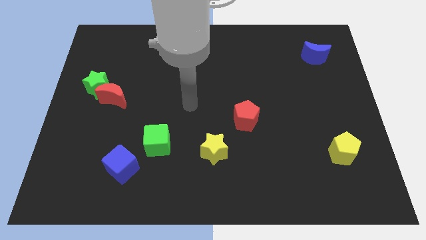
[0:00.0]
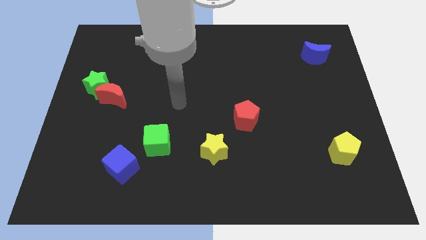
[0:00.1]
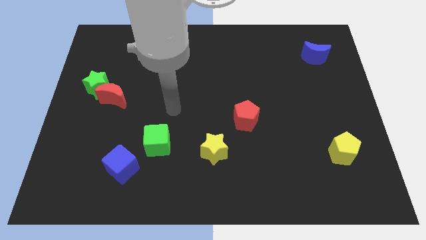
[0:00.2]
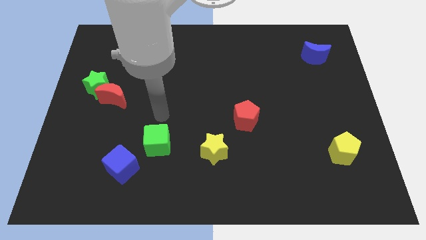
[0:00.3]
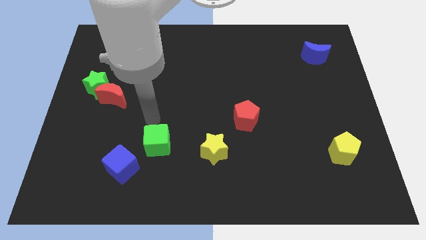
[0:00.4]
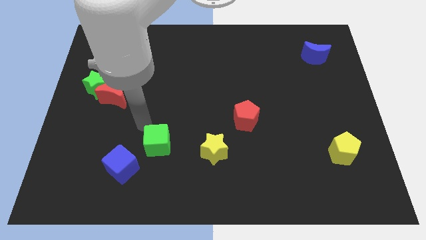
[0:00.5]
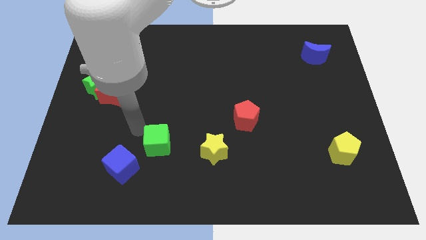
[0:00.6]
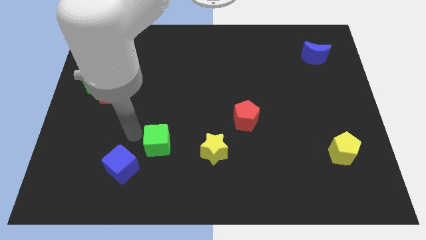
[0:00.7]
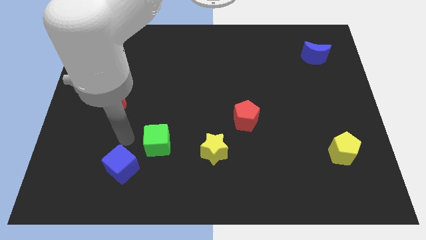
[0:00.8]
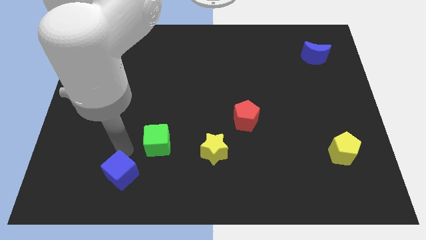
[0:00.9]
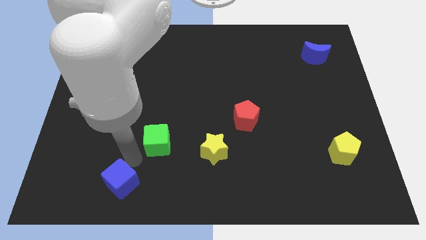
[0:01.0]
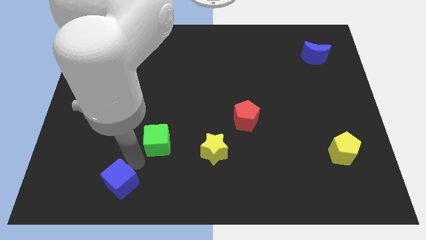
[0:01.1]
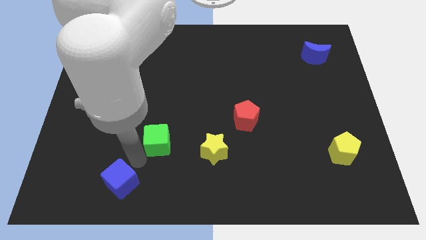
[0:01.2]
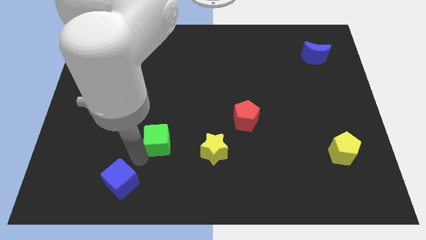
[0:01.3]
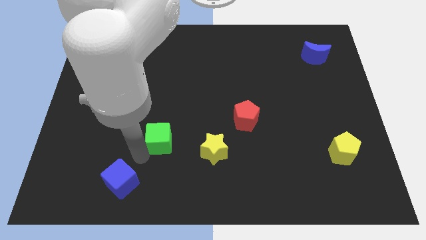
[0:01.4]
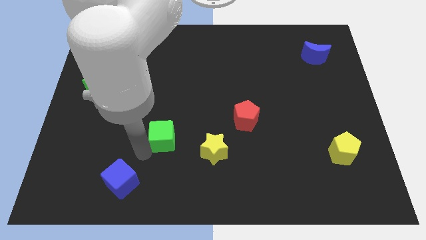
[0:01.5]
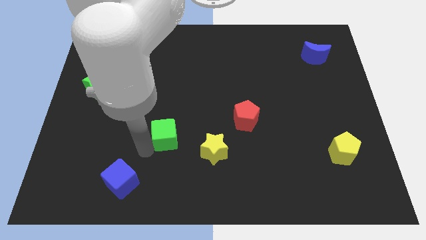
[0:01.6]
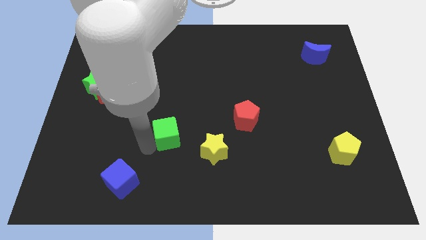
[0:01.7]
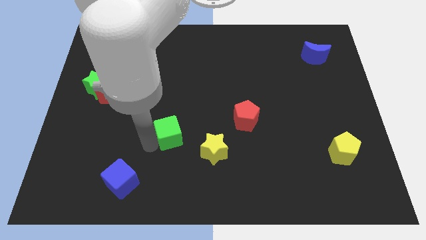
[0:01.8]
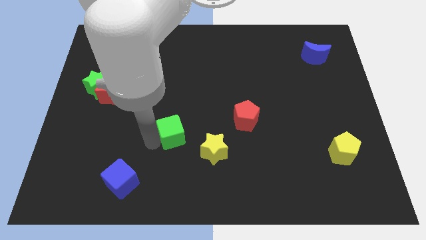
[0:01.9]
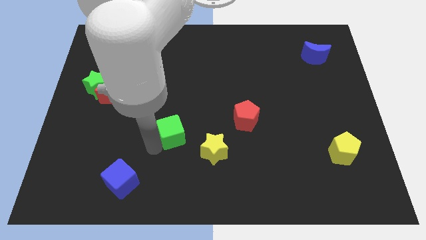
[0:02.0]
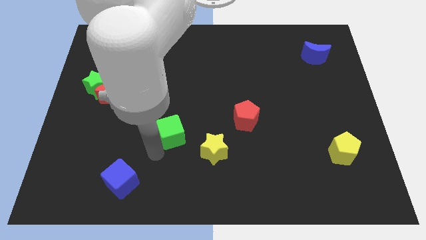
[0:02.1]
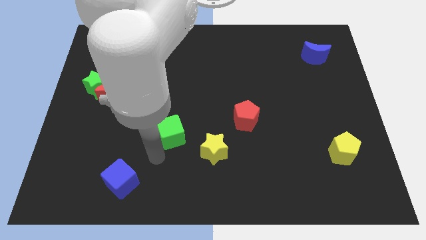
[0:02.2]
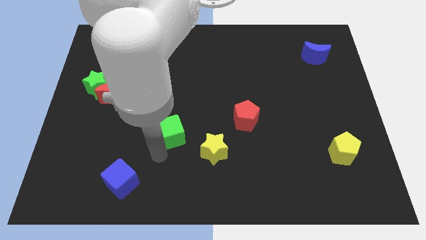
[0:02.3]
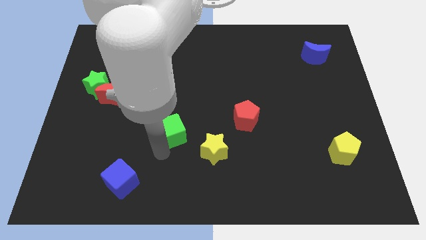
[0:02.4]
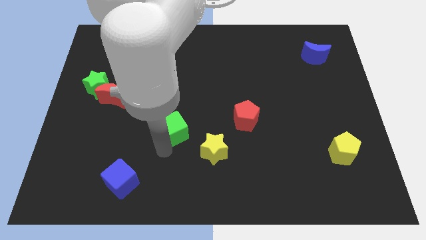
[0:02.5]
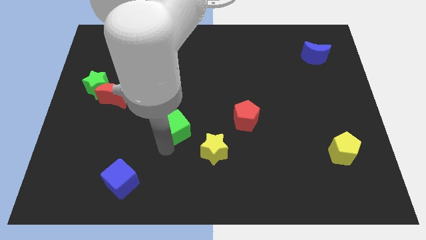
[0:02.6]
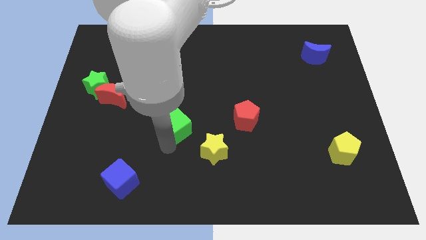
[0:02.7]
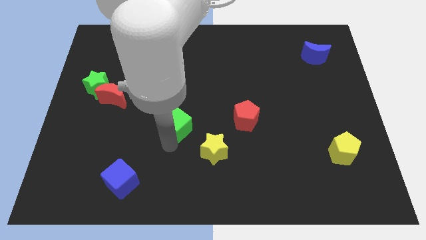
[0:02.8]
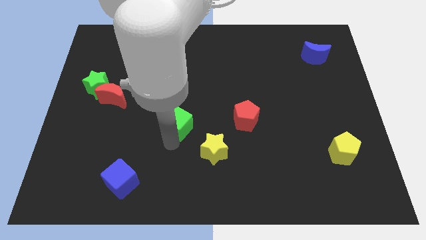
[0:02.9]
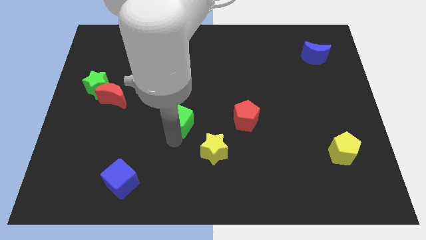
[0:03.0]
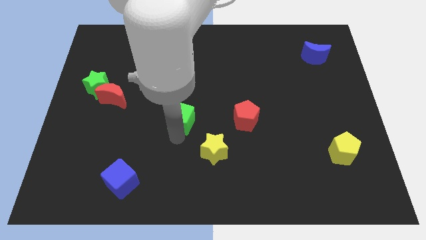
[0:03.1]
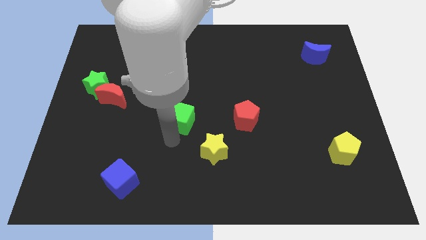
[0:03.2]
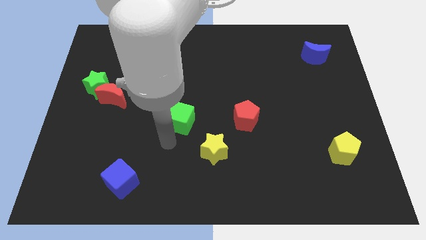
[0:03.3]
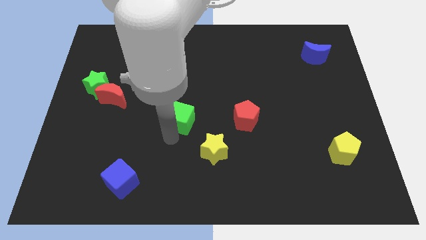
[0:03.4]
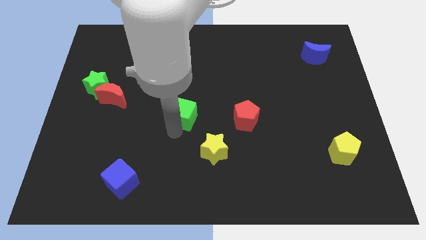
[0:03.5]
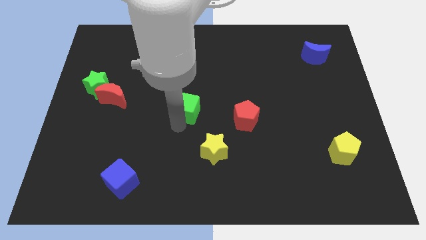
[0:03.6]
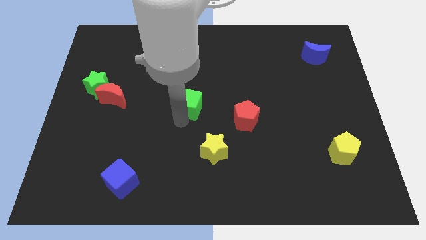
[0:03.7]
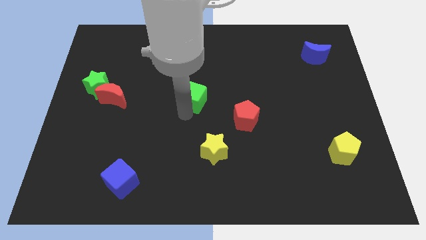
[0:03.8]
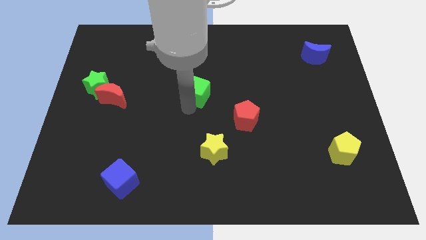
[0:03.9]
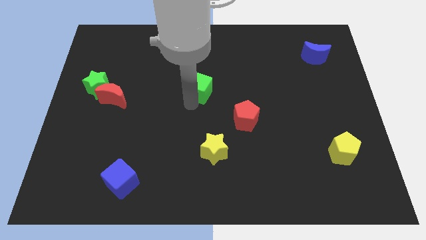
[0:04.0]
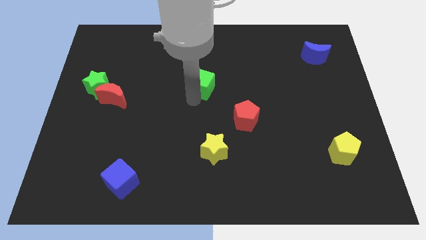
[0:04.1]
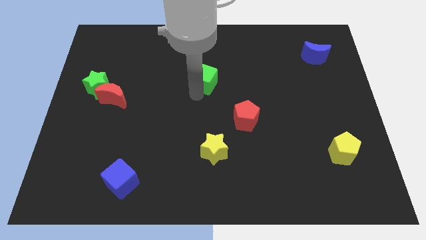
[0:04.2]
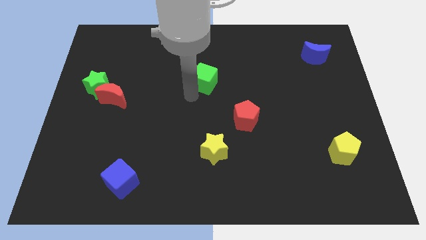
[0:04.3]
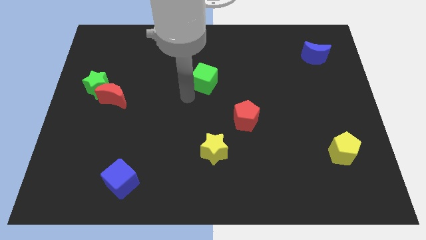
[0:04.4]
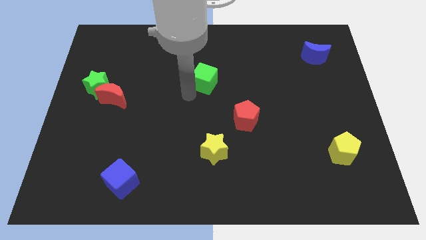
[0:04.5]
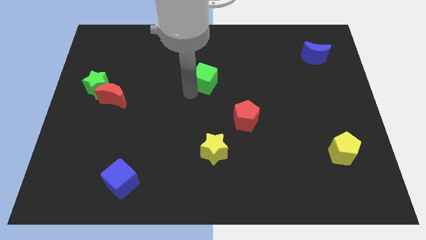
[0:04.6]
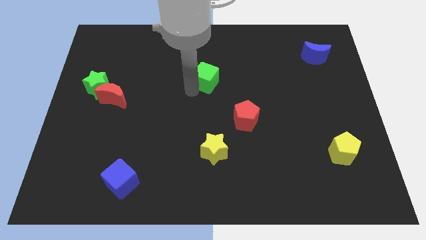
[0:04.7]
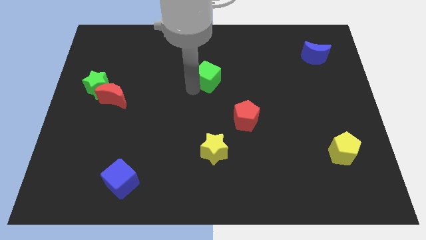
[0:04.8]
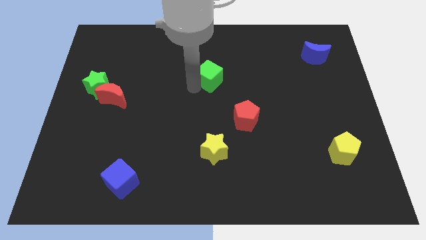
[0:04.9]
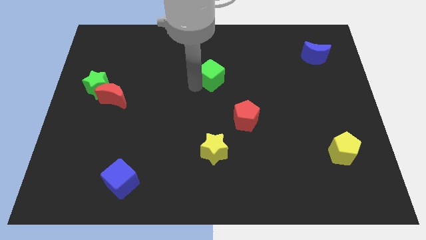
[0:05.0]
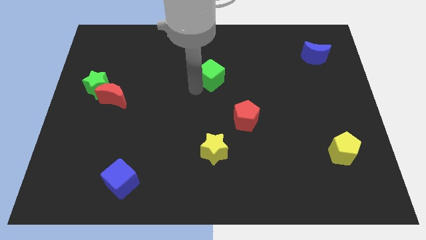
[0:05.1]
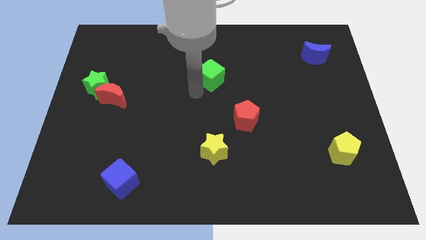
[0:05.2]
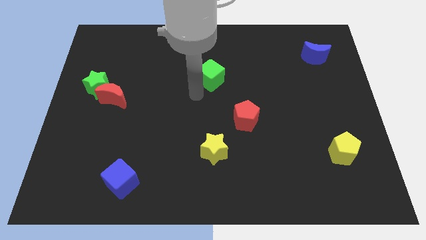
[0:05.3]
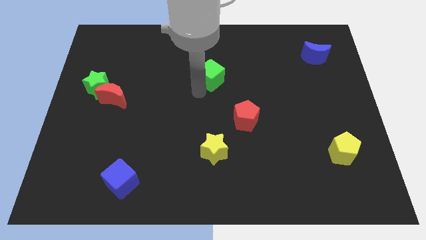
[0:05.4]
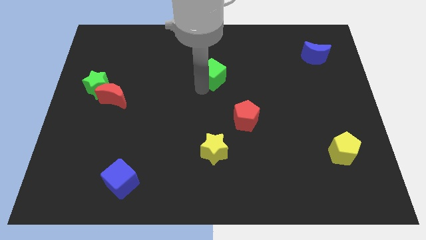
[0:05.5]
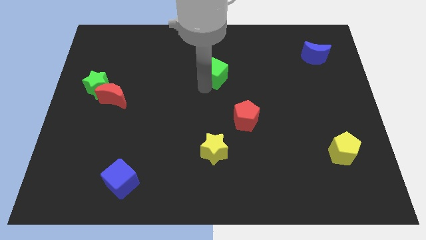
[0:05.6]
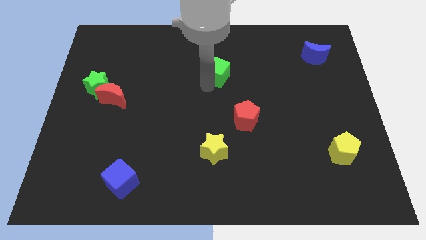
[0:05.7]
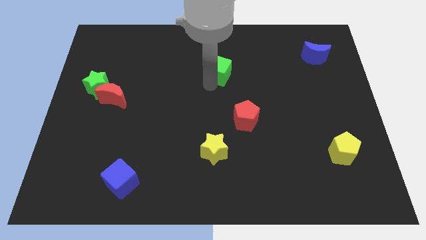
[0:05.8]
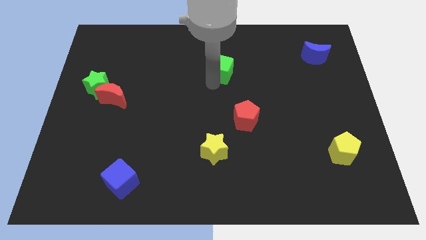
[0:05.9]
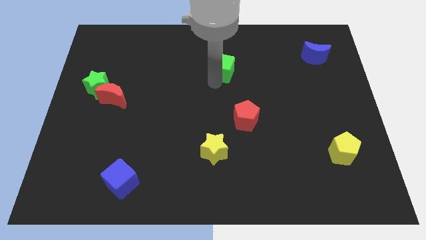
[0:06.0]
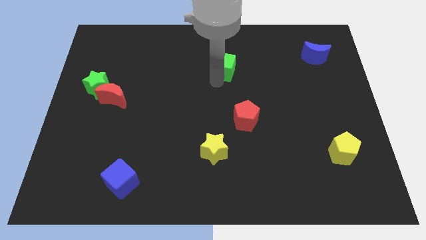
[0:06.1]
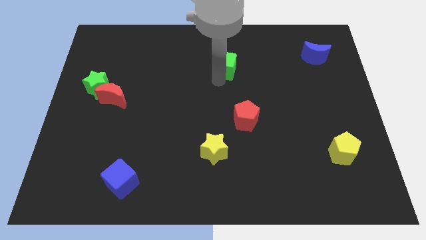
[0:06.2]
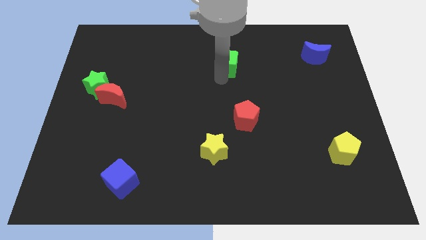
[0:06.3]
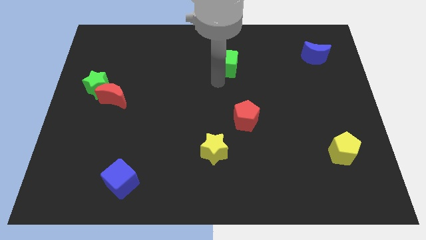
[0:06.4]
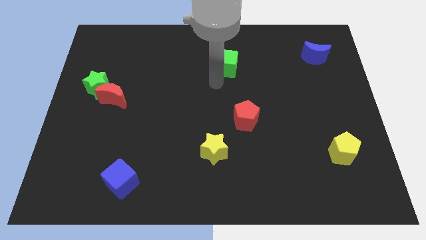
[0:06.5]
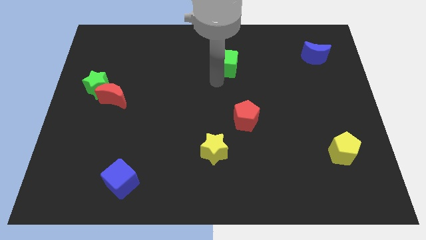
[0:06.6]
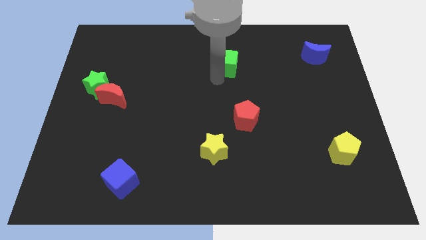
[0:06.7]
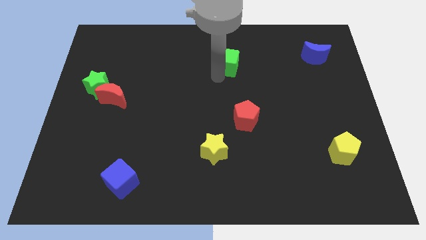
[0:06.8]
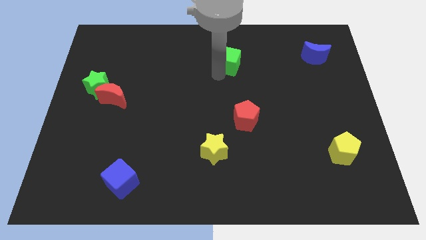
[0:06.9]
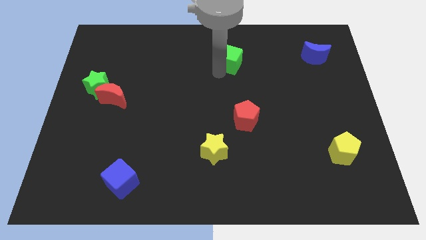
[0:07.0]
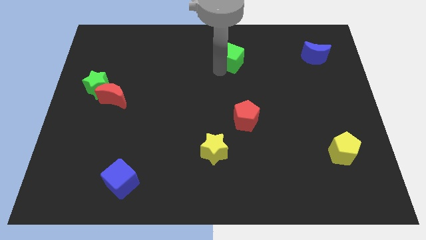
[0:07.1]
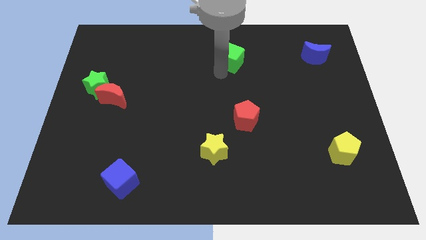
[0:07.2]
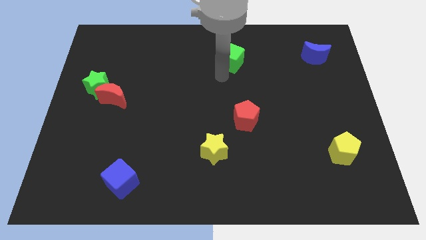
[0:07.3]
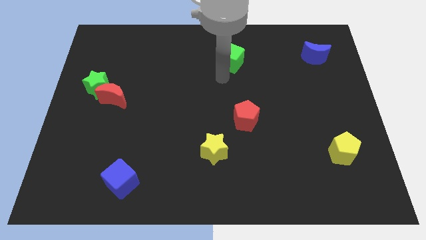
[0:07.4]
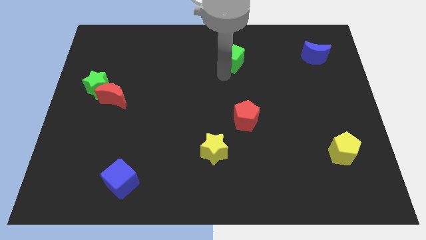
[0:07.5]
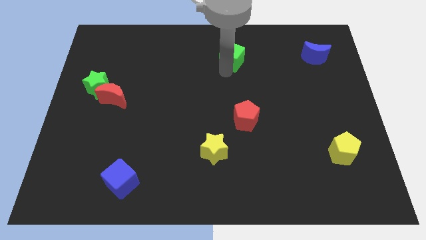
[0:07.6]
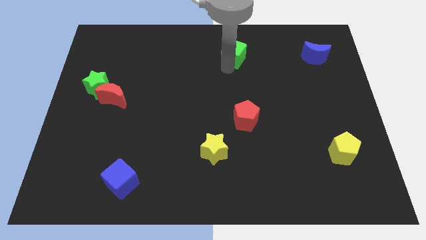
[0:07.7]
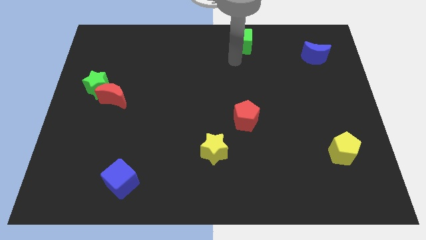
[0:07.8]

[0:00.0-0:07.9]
slide the green cube to the top side
